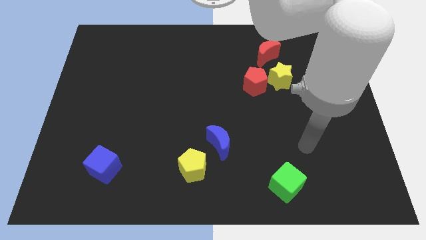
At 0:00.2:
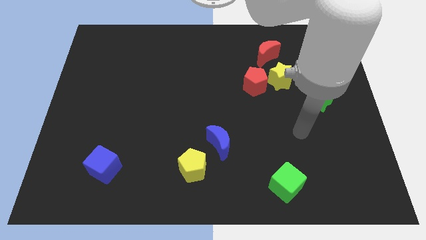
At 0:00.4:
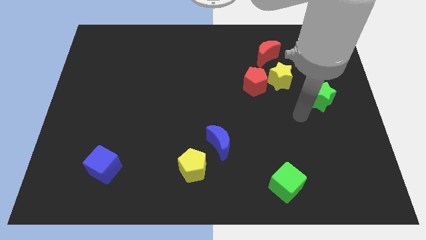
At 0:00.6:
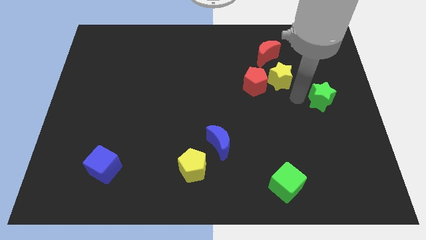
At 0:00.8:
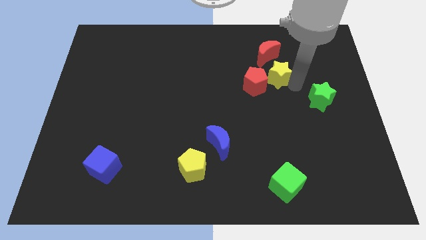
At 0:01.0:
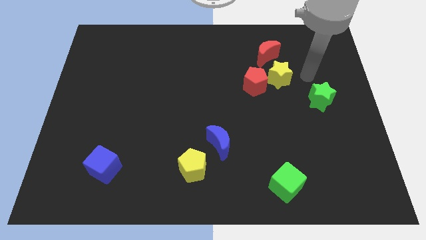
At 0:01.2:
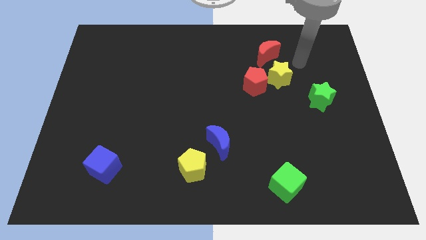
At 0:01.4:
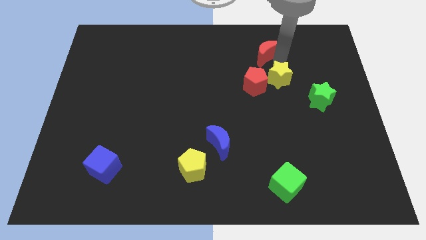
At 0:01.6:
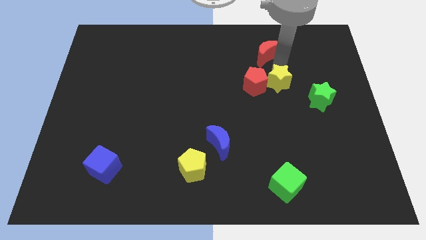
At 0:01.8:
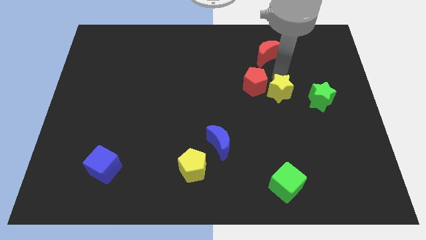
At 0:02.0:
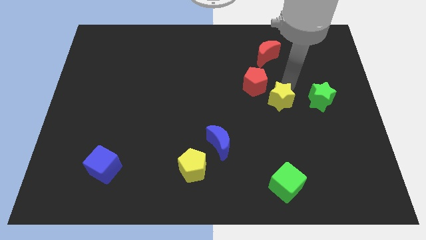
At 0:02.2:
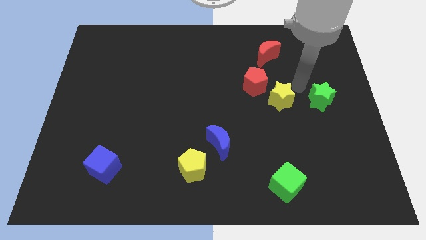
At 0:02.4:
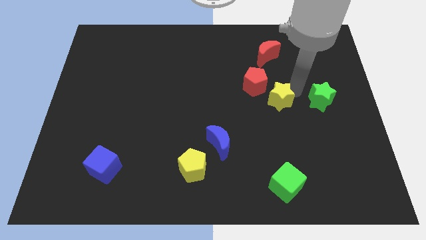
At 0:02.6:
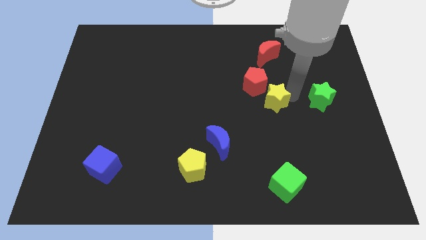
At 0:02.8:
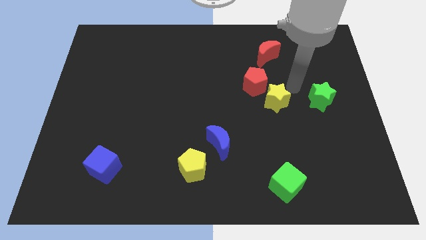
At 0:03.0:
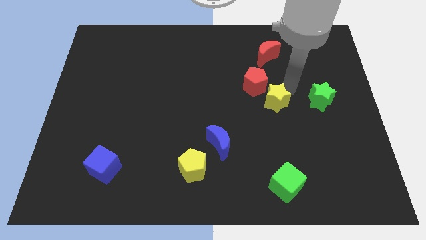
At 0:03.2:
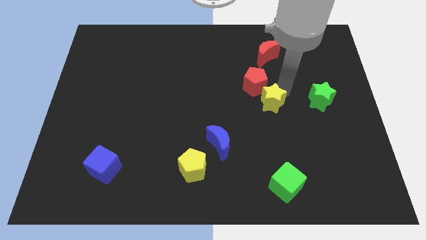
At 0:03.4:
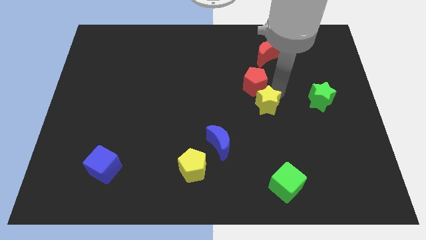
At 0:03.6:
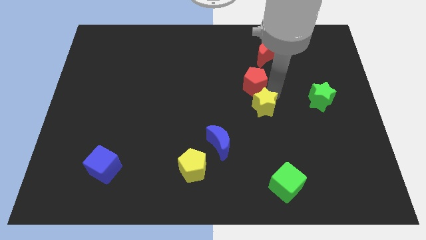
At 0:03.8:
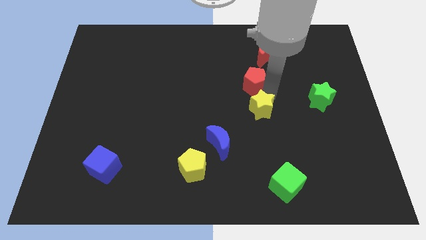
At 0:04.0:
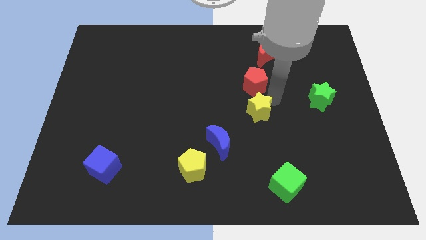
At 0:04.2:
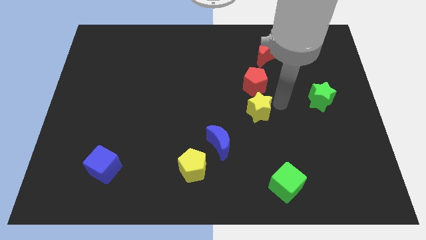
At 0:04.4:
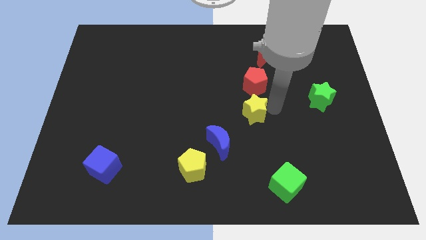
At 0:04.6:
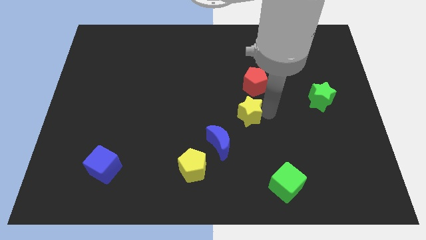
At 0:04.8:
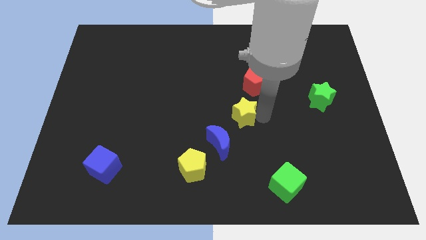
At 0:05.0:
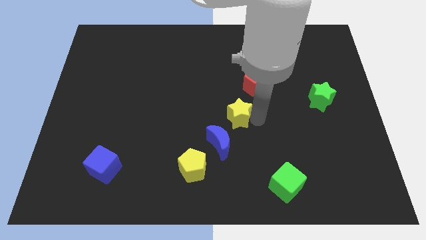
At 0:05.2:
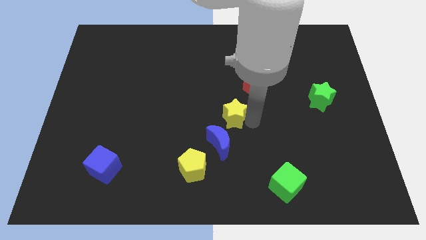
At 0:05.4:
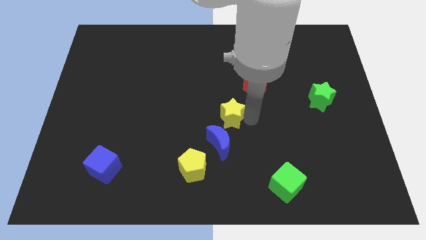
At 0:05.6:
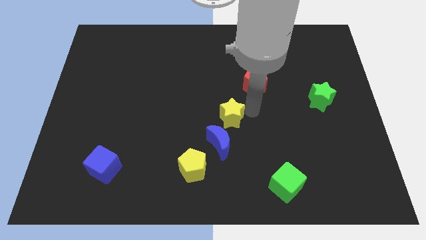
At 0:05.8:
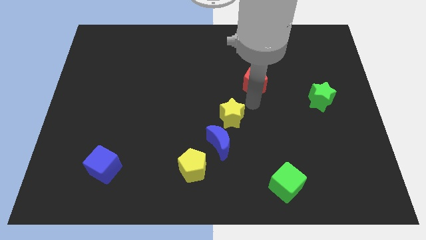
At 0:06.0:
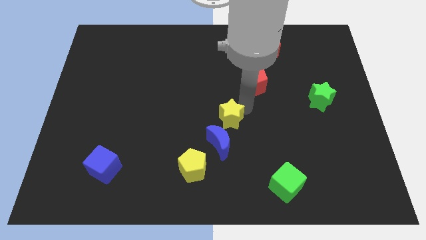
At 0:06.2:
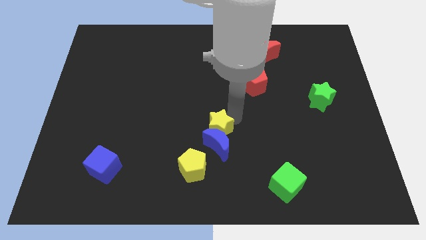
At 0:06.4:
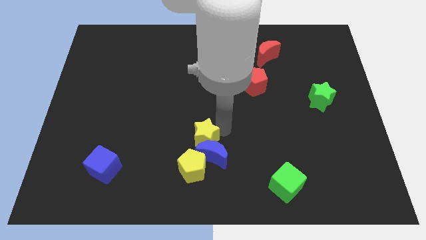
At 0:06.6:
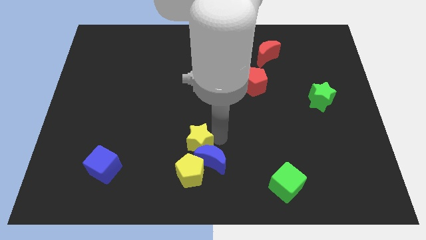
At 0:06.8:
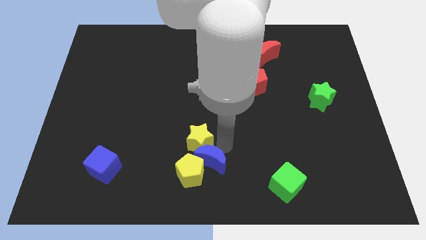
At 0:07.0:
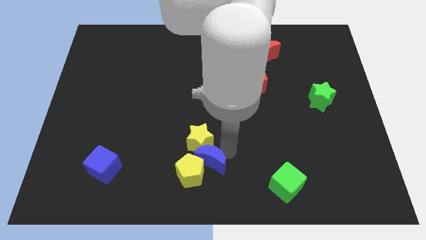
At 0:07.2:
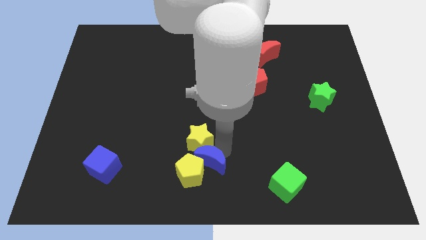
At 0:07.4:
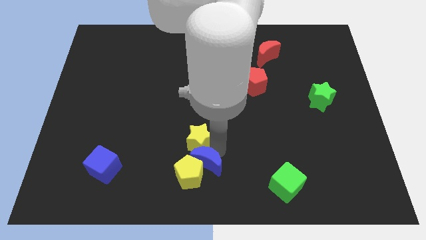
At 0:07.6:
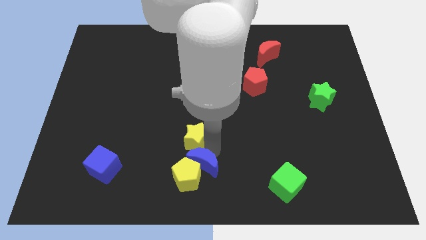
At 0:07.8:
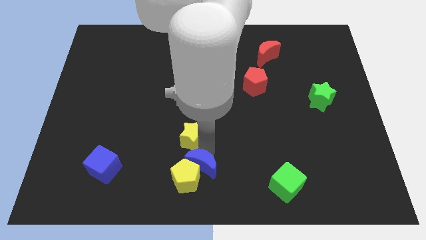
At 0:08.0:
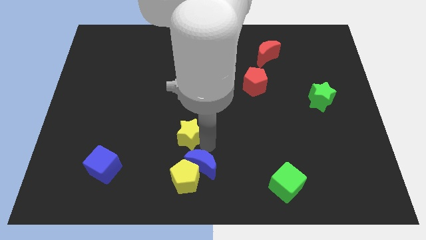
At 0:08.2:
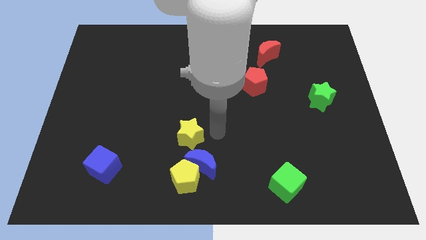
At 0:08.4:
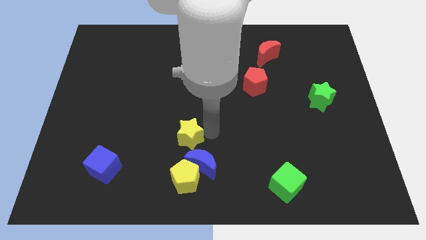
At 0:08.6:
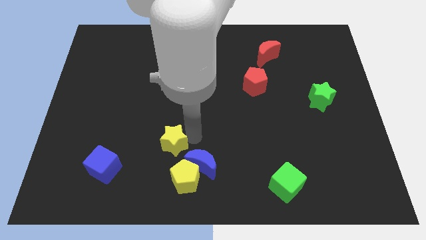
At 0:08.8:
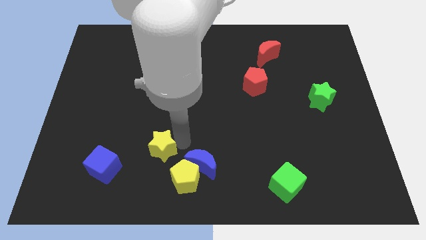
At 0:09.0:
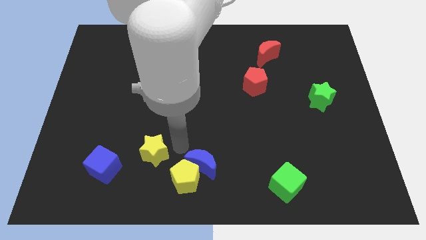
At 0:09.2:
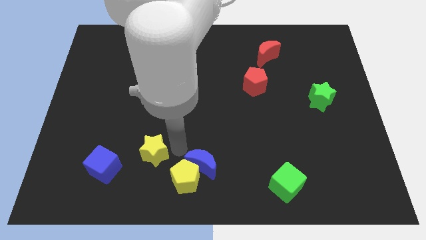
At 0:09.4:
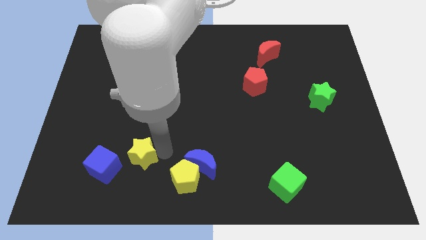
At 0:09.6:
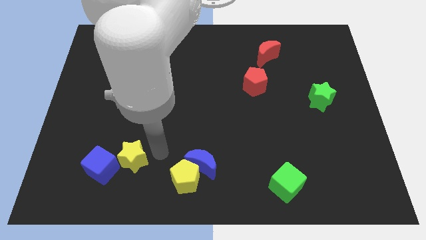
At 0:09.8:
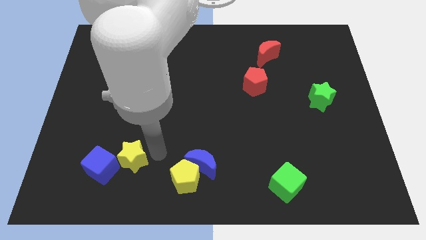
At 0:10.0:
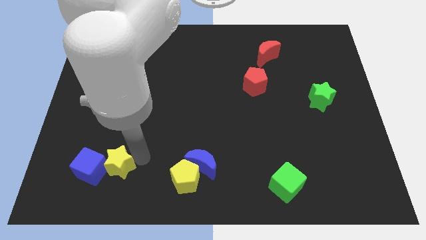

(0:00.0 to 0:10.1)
push the yellow star to the blue cube

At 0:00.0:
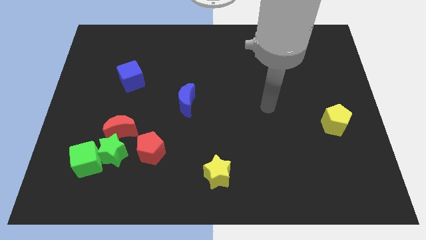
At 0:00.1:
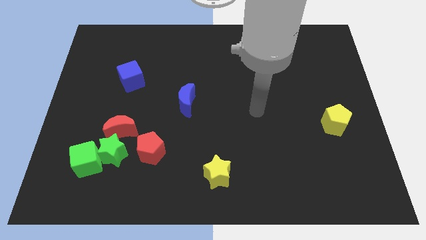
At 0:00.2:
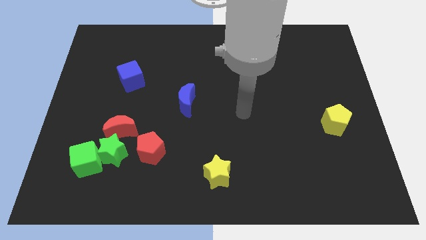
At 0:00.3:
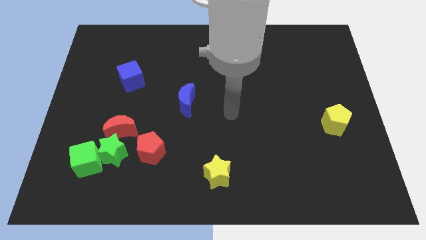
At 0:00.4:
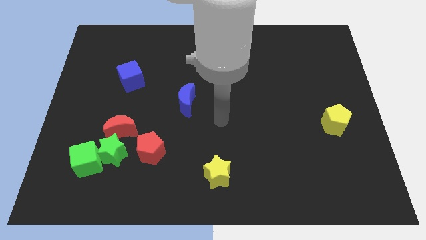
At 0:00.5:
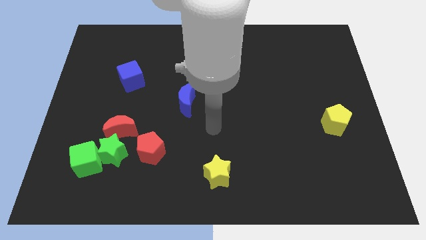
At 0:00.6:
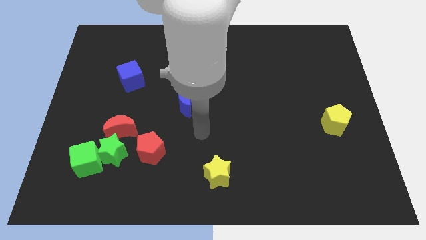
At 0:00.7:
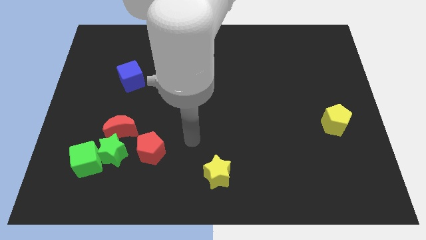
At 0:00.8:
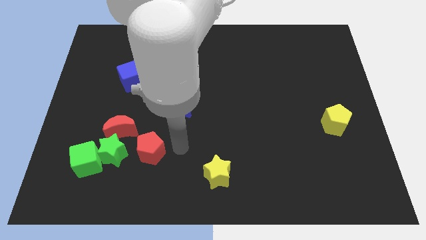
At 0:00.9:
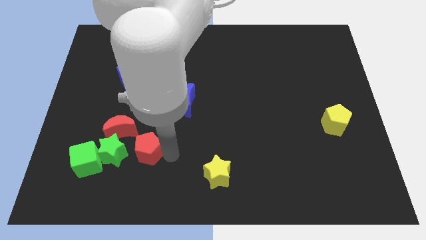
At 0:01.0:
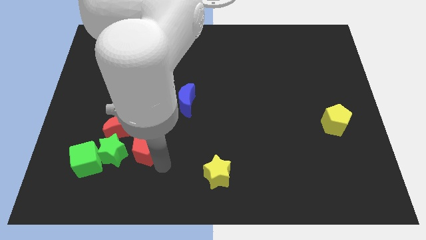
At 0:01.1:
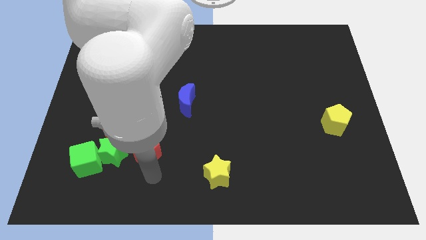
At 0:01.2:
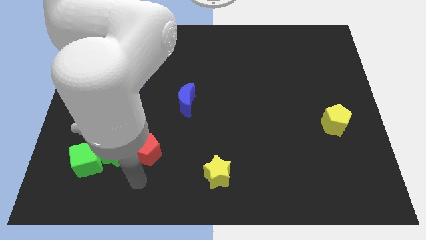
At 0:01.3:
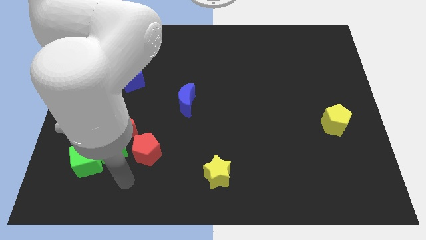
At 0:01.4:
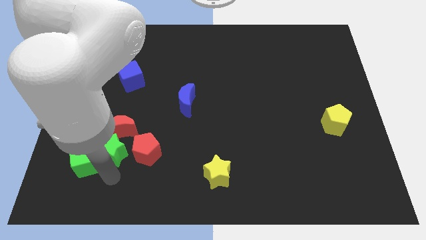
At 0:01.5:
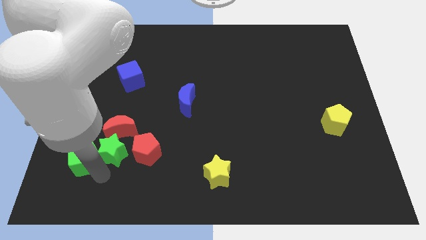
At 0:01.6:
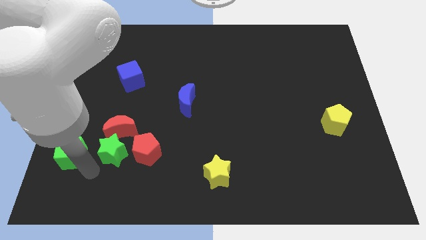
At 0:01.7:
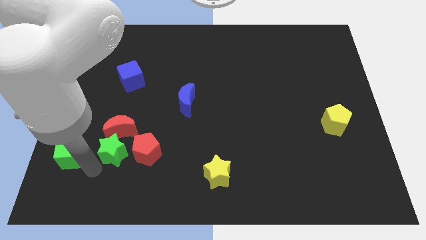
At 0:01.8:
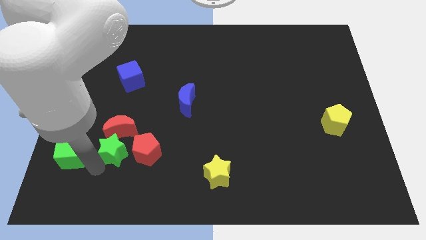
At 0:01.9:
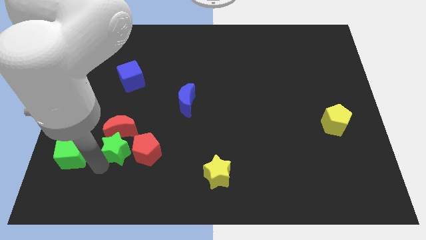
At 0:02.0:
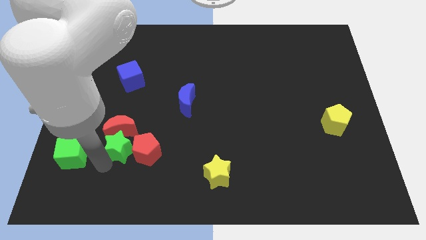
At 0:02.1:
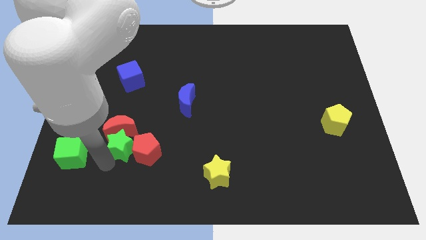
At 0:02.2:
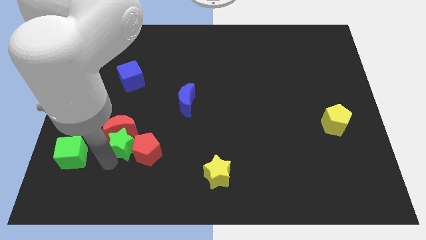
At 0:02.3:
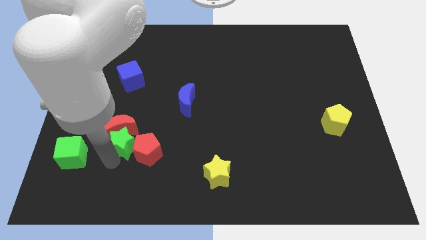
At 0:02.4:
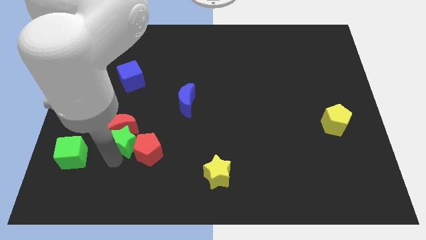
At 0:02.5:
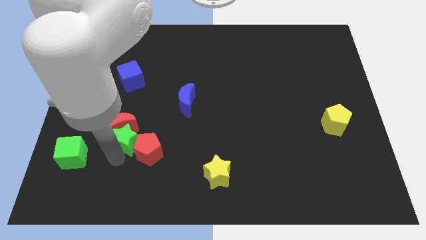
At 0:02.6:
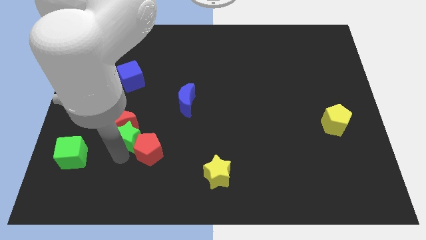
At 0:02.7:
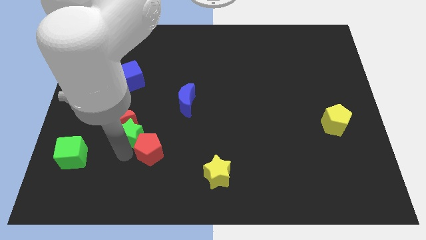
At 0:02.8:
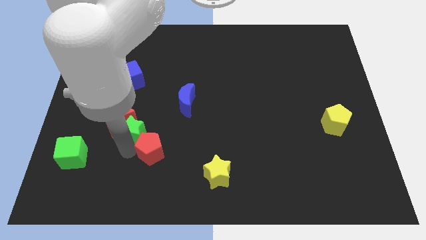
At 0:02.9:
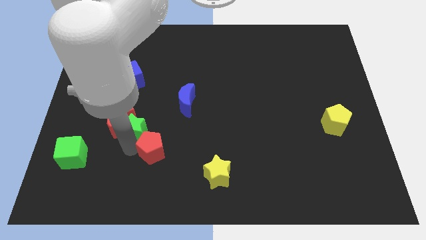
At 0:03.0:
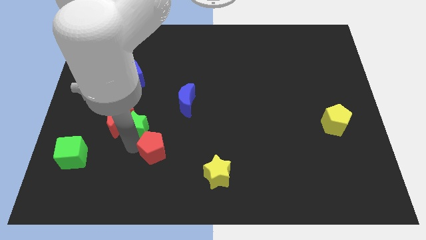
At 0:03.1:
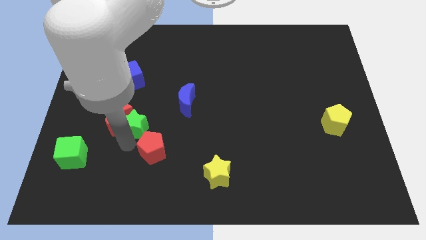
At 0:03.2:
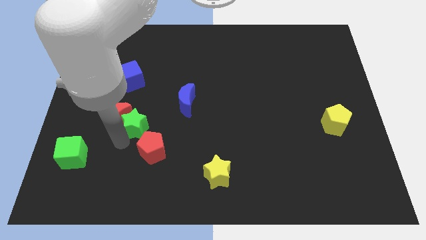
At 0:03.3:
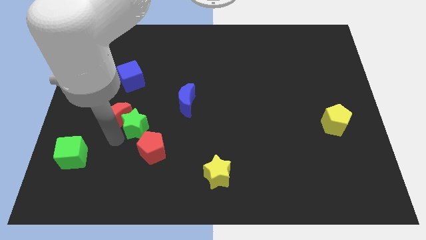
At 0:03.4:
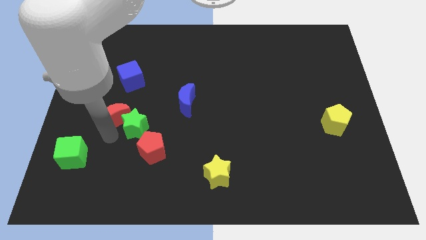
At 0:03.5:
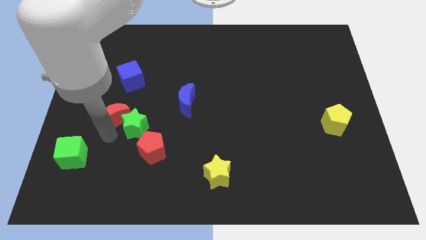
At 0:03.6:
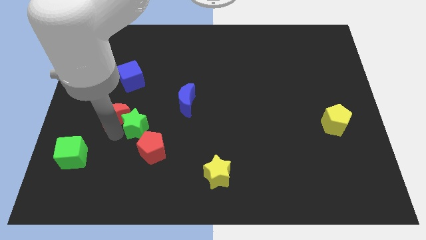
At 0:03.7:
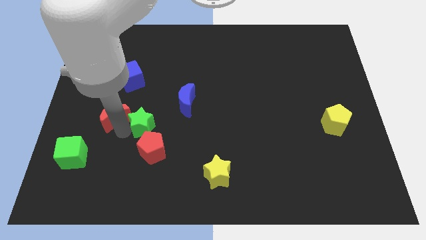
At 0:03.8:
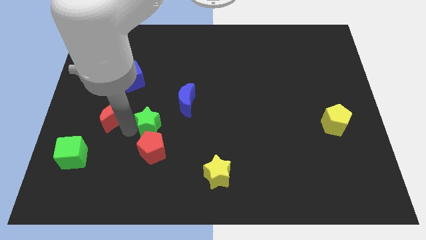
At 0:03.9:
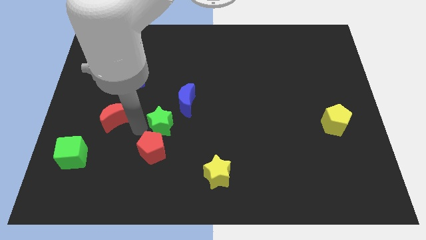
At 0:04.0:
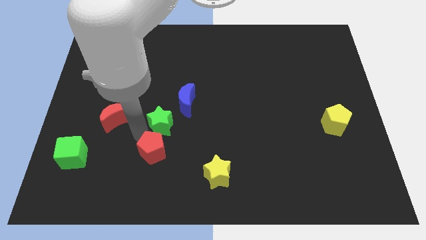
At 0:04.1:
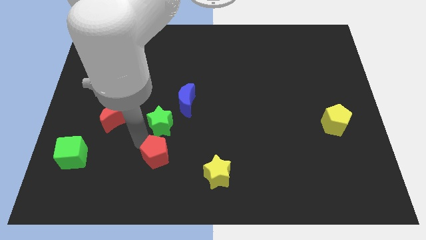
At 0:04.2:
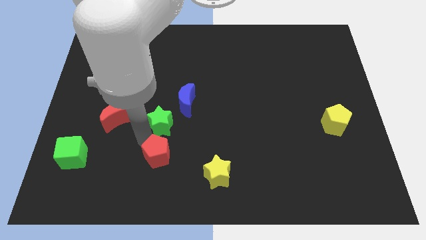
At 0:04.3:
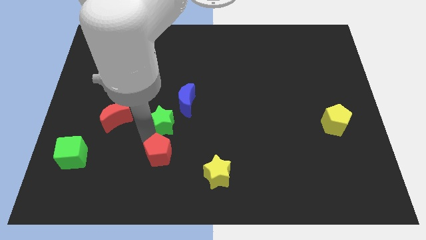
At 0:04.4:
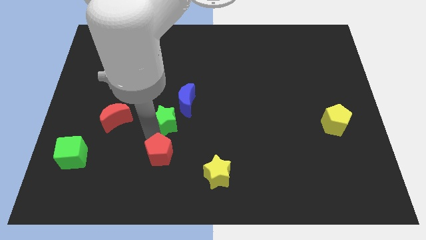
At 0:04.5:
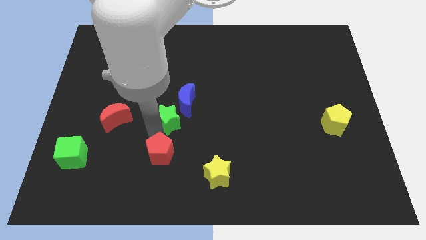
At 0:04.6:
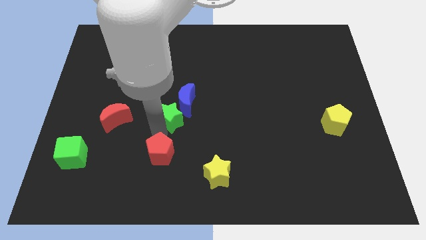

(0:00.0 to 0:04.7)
move the green star to the blue moon
